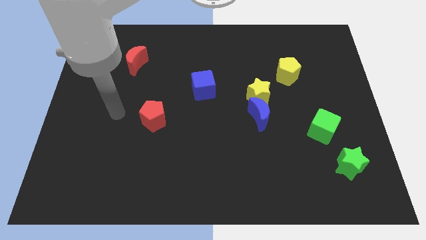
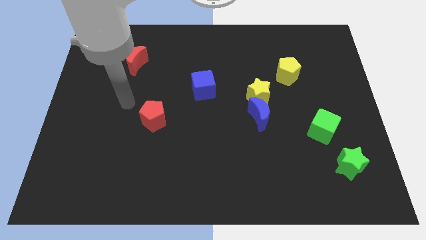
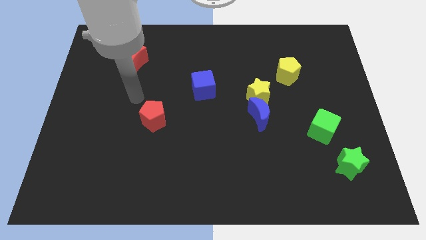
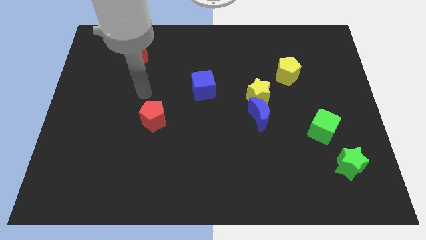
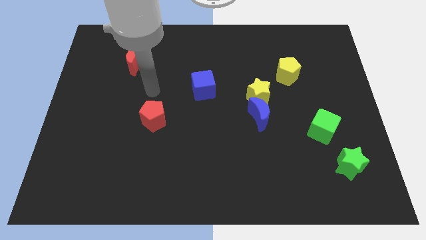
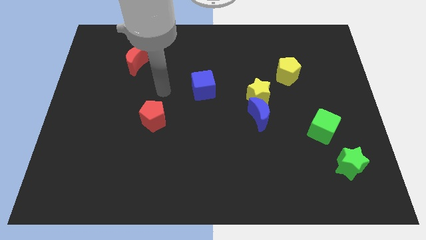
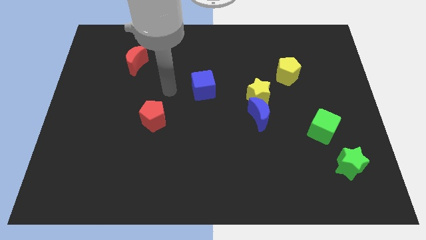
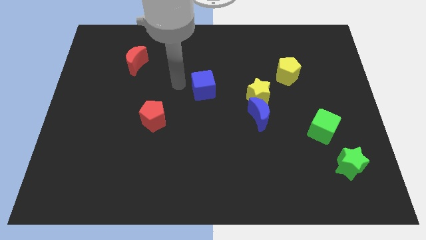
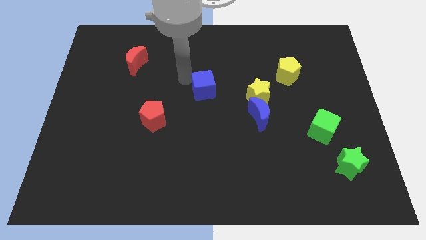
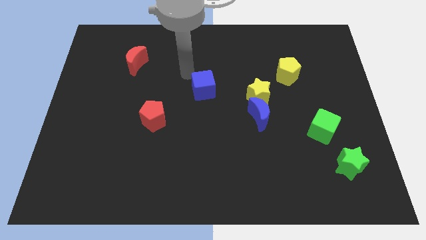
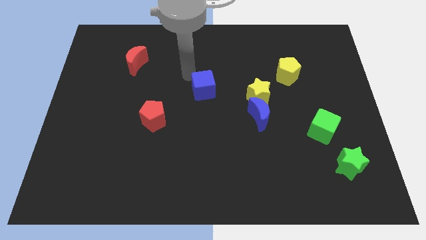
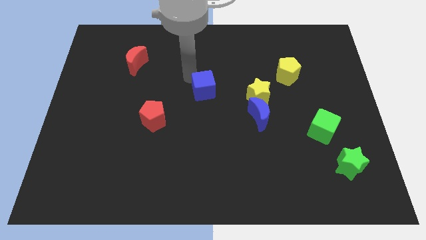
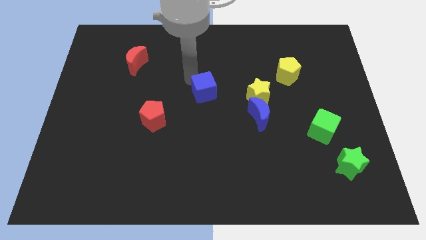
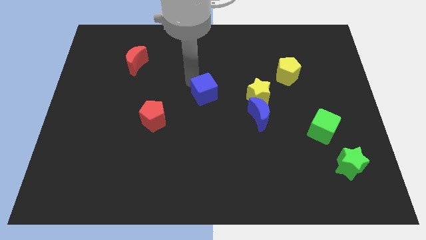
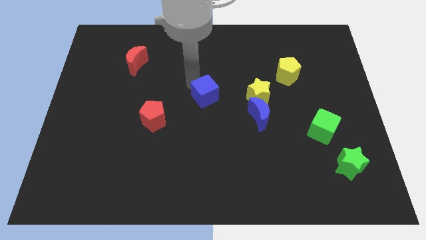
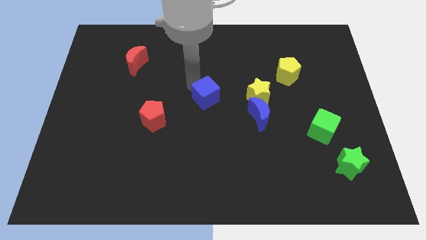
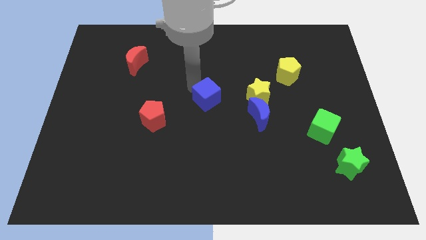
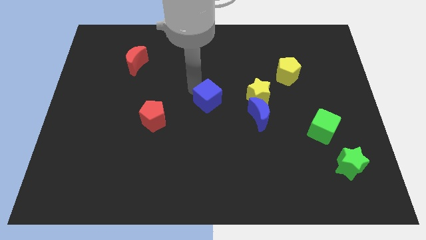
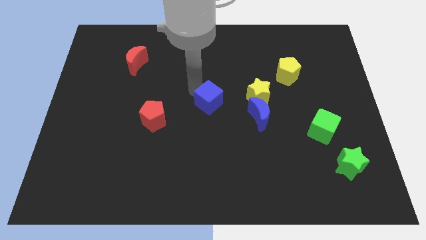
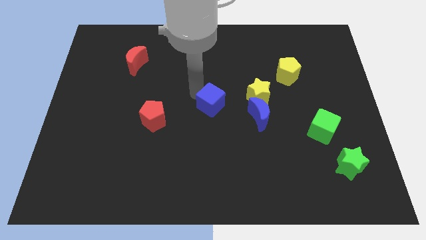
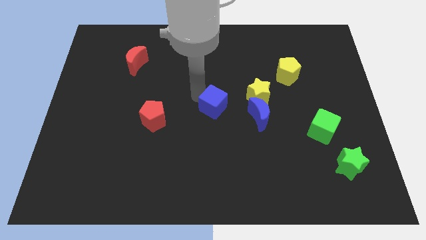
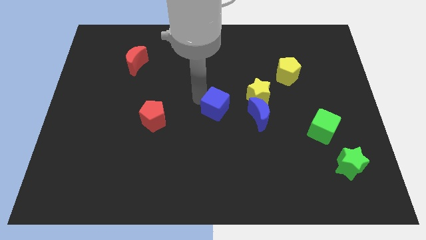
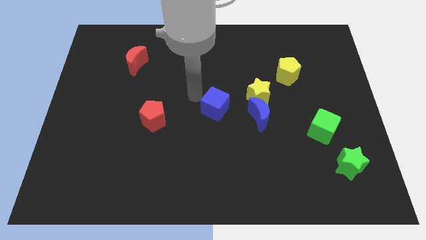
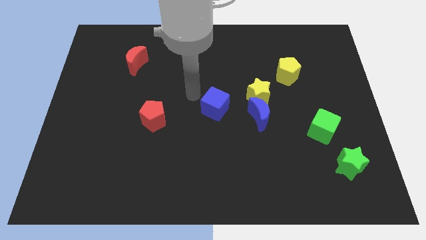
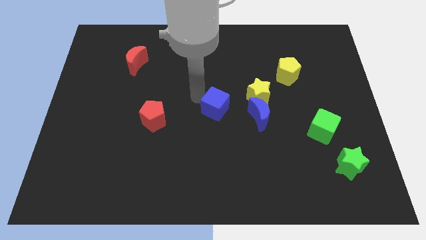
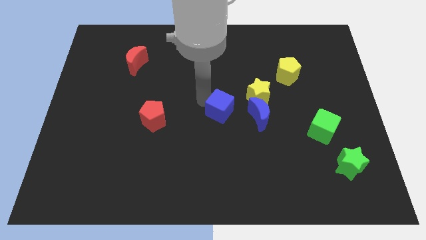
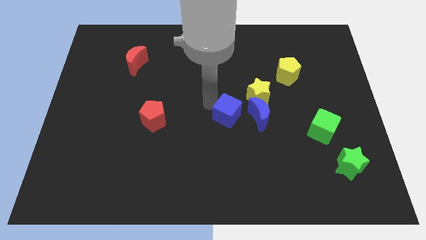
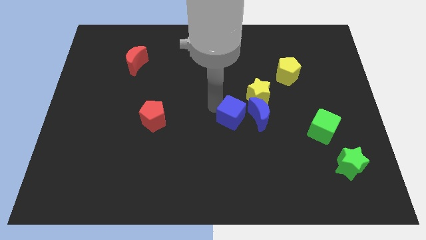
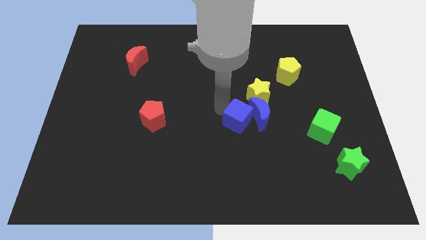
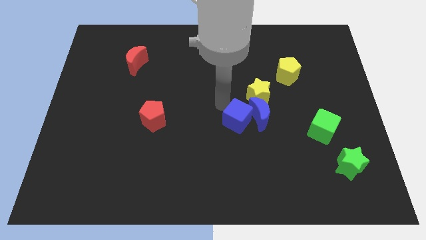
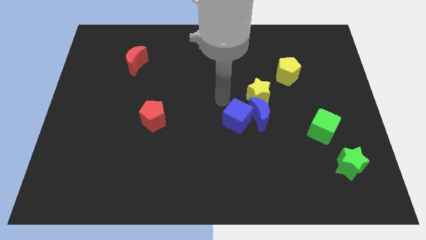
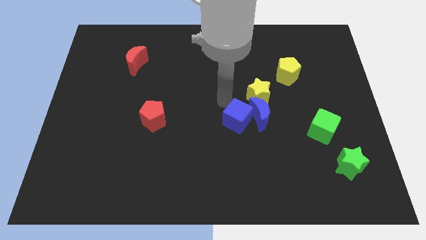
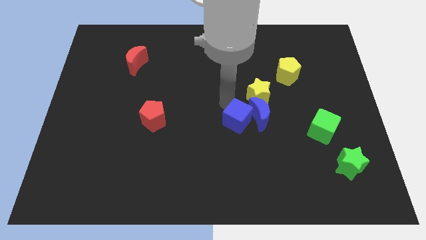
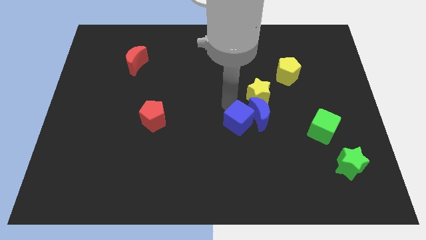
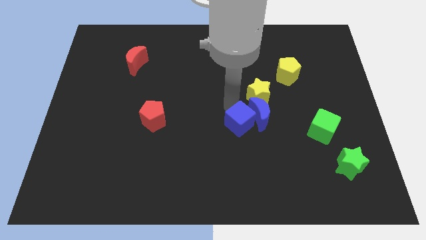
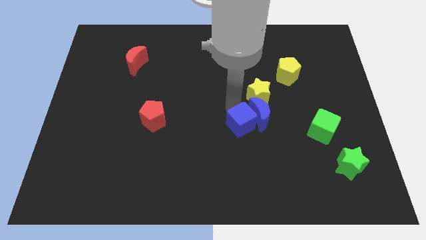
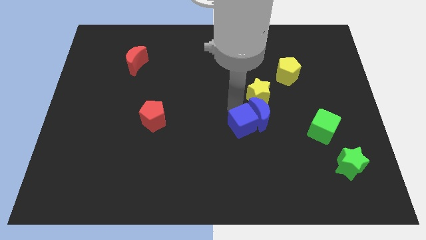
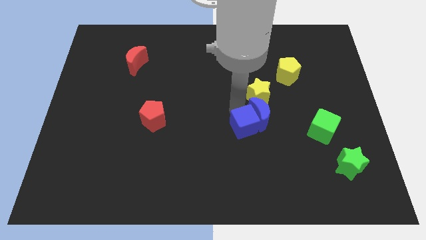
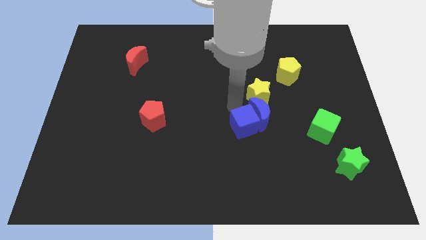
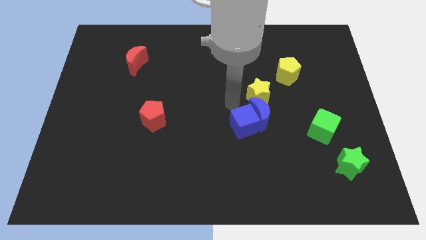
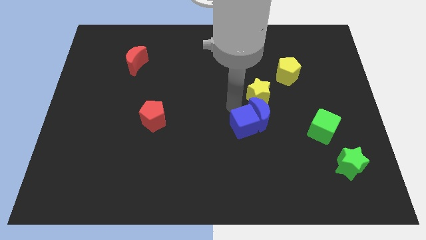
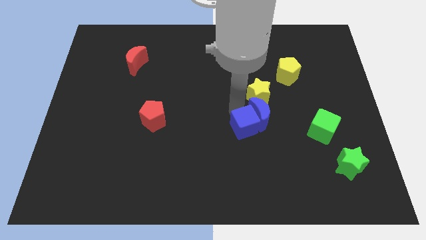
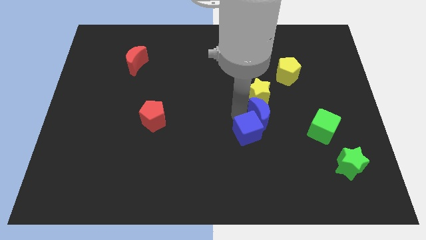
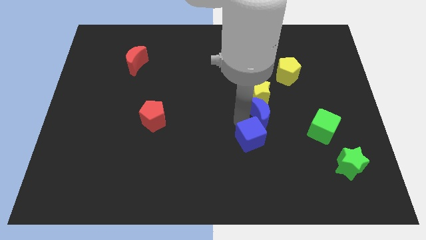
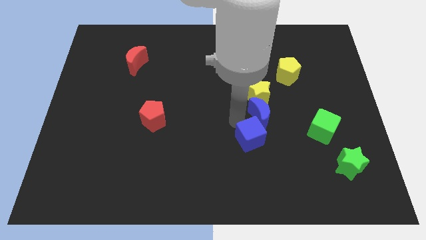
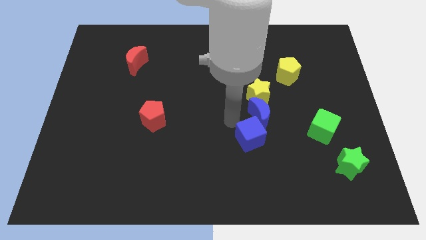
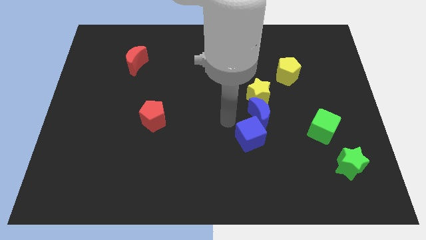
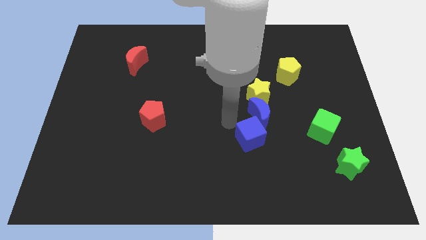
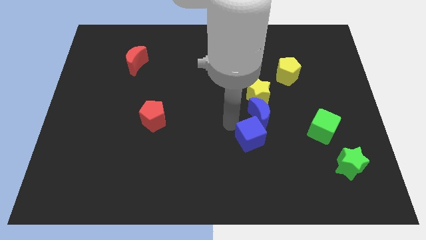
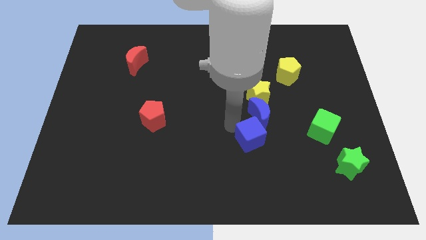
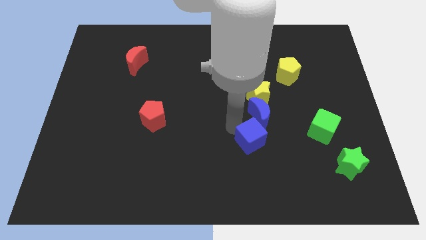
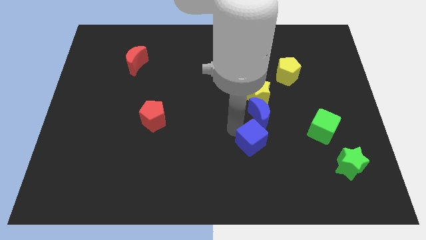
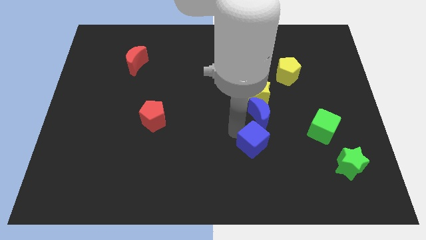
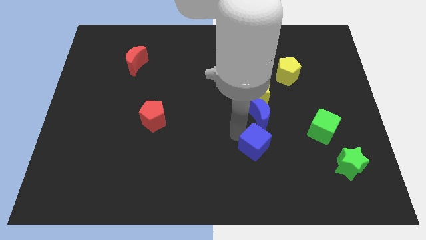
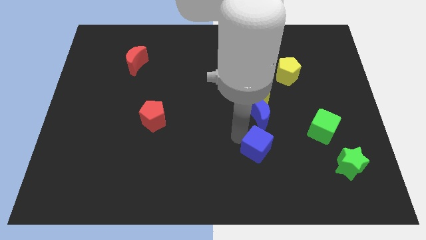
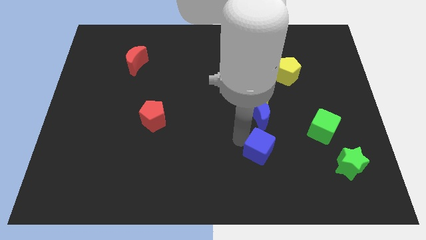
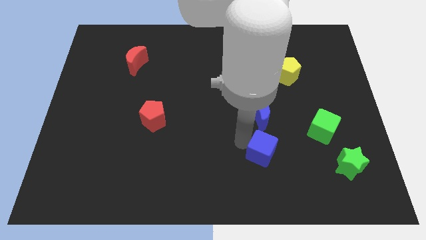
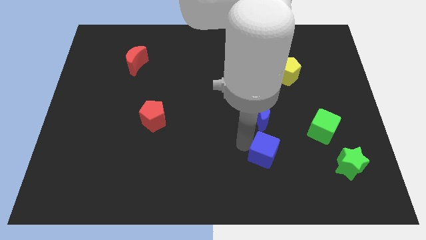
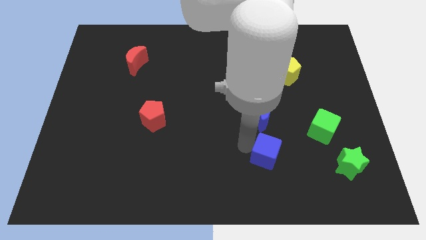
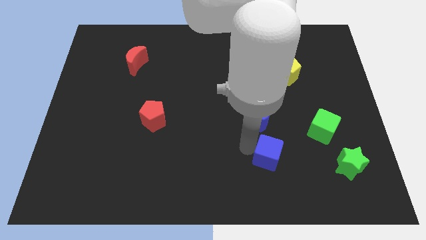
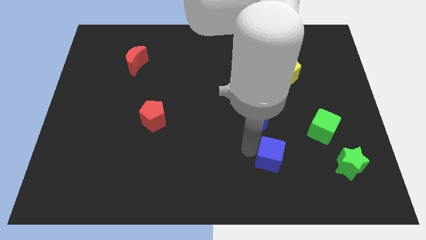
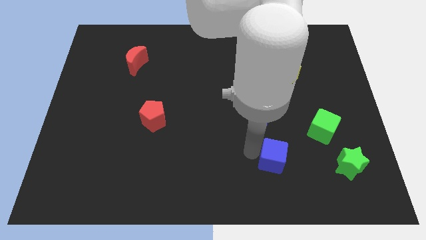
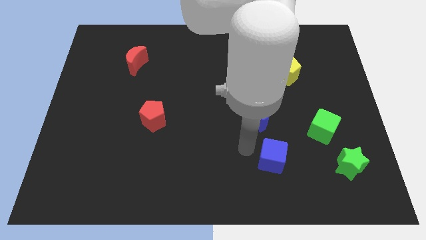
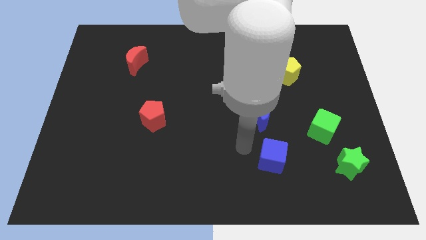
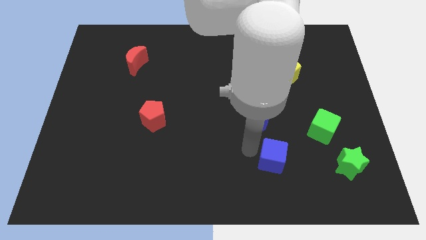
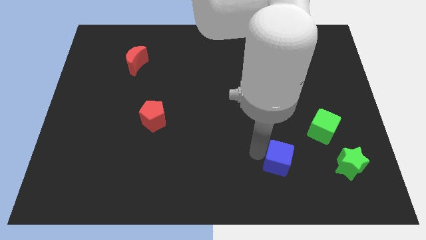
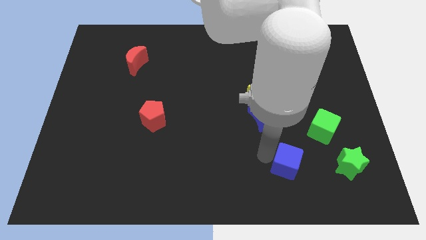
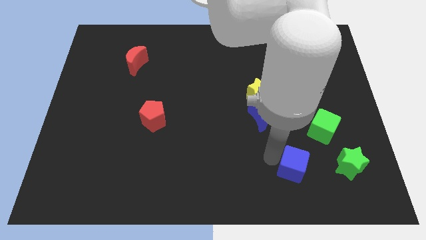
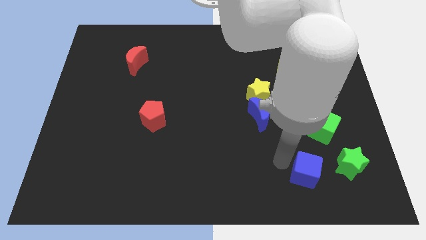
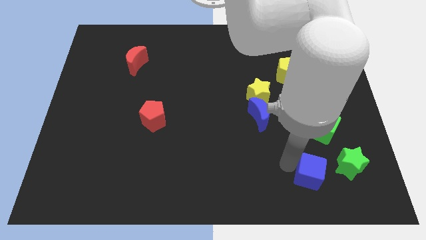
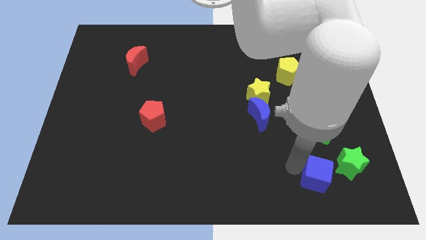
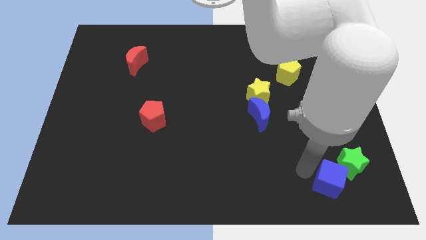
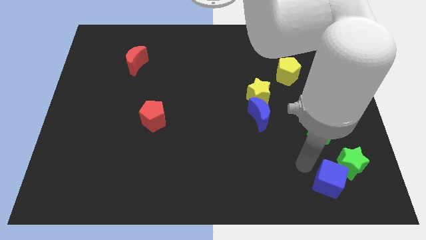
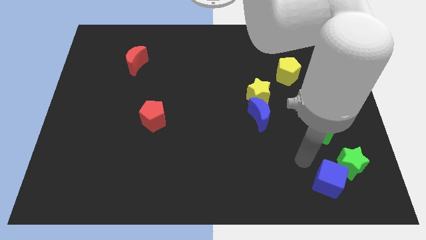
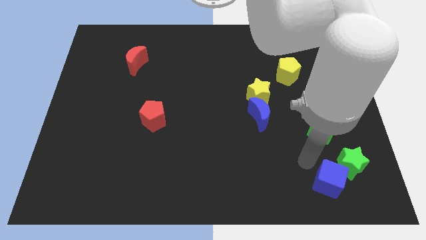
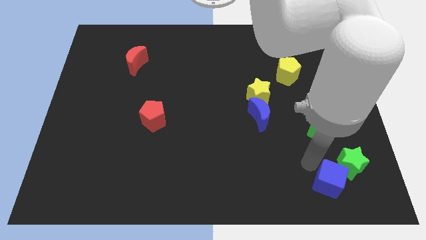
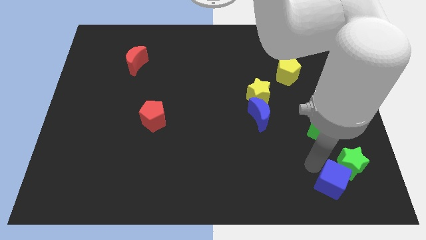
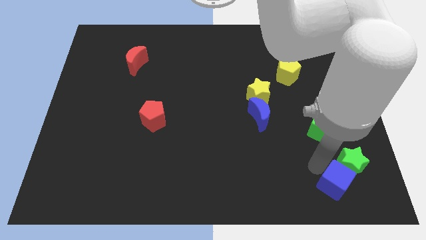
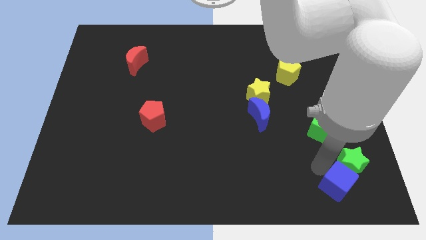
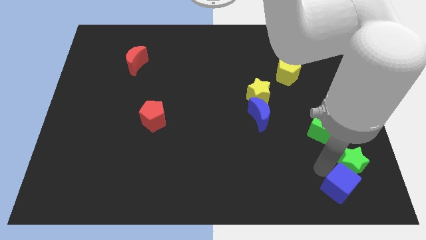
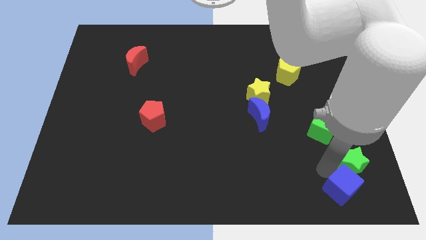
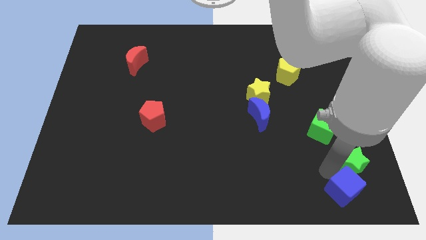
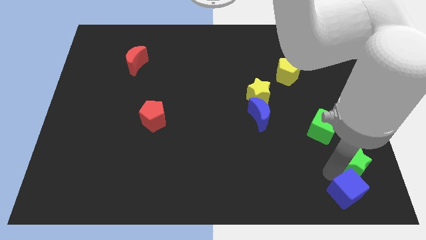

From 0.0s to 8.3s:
move the blue cube to the bottom right
